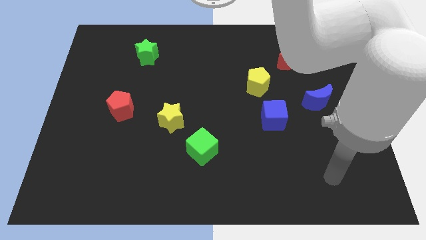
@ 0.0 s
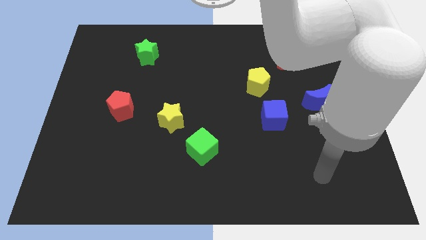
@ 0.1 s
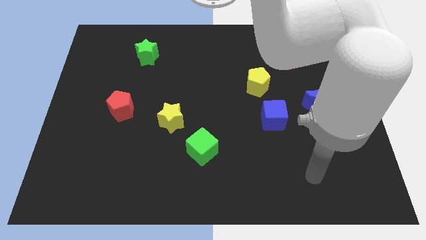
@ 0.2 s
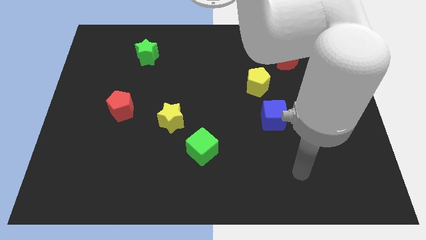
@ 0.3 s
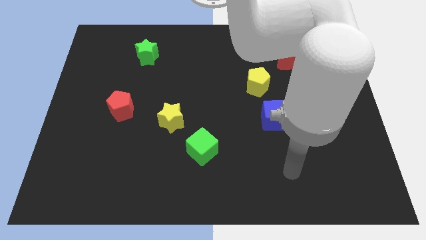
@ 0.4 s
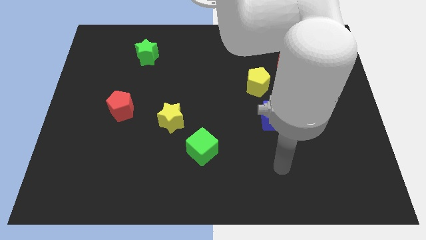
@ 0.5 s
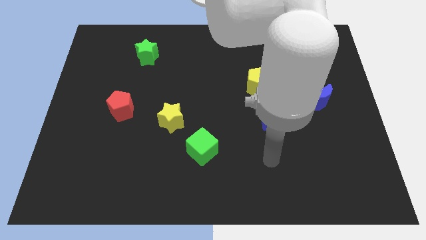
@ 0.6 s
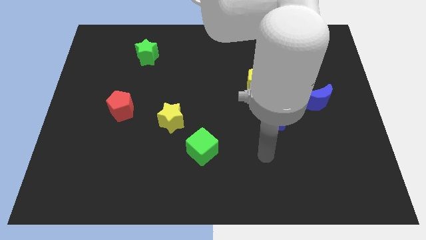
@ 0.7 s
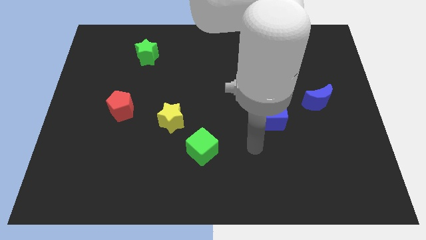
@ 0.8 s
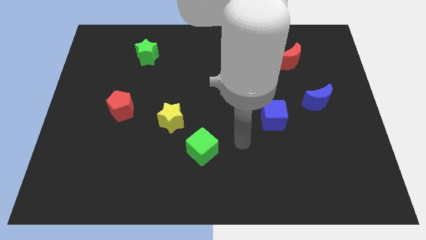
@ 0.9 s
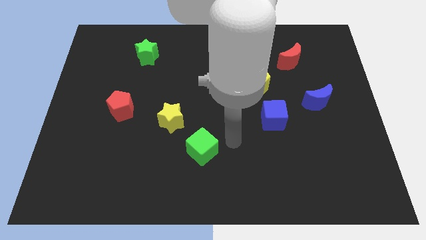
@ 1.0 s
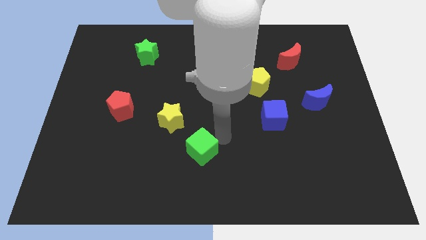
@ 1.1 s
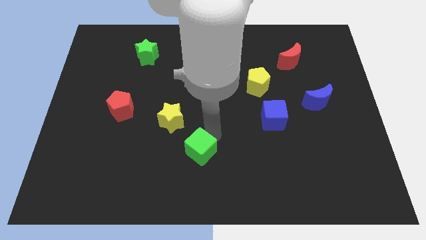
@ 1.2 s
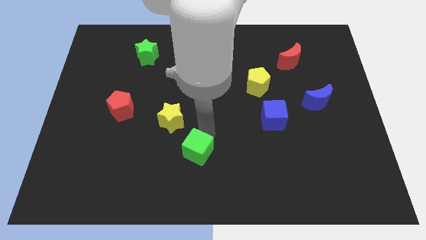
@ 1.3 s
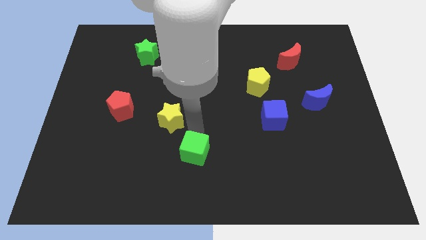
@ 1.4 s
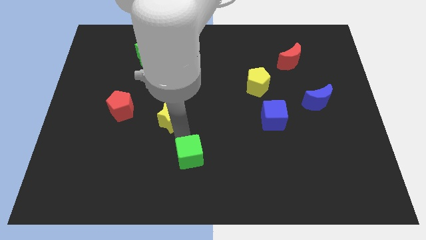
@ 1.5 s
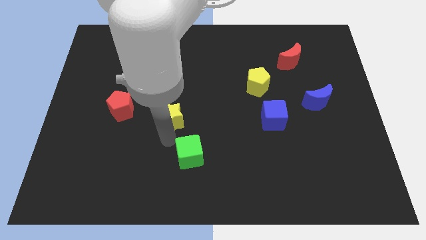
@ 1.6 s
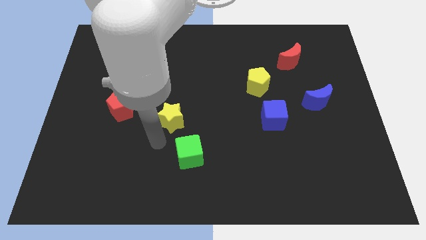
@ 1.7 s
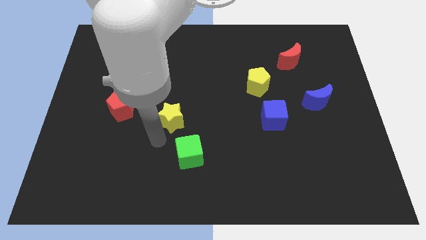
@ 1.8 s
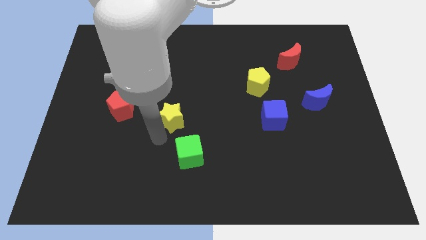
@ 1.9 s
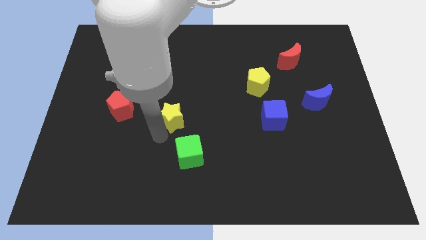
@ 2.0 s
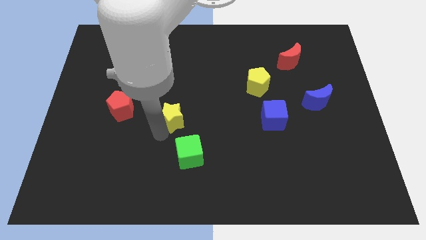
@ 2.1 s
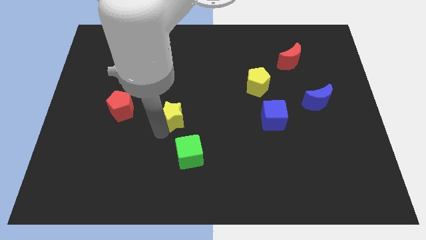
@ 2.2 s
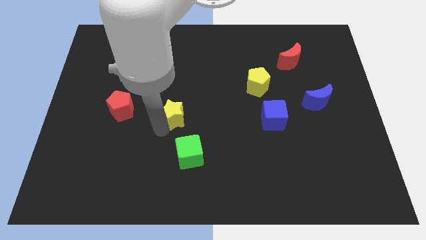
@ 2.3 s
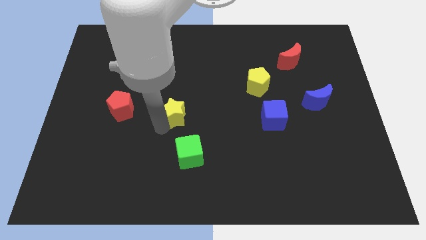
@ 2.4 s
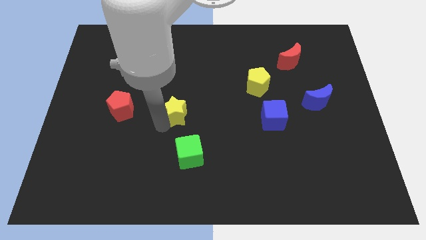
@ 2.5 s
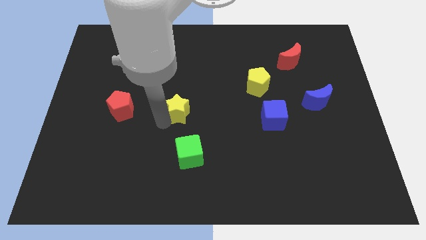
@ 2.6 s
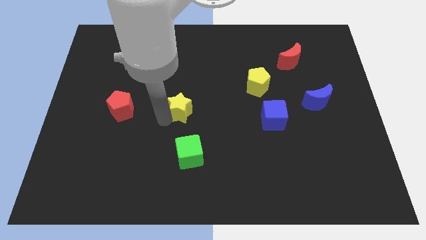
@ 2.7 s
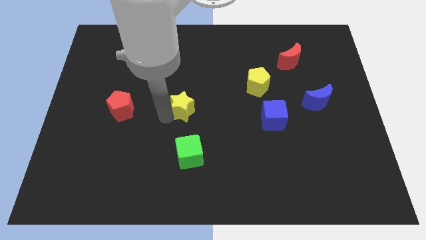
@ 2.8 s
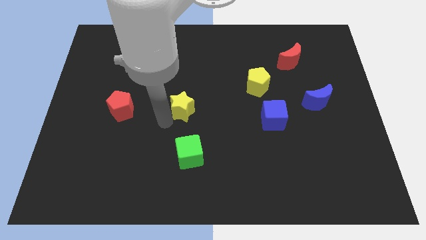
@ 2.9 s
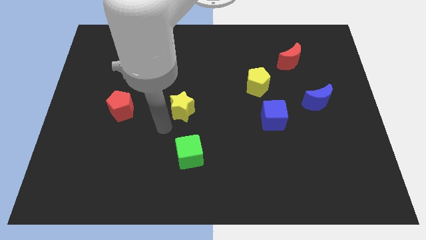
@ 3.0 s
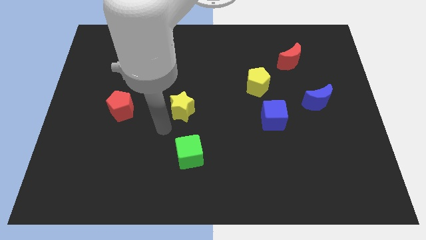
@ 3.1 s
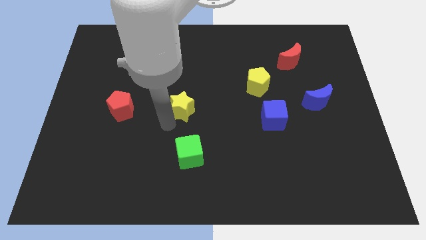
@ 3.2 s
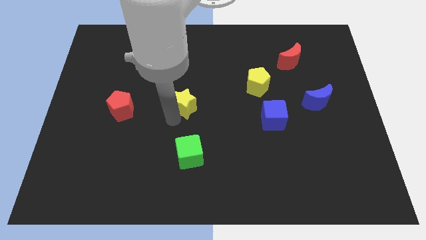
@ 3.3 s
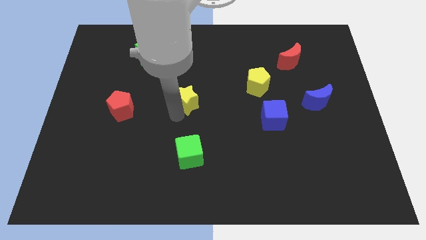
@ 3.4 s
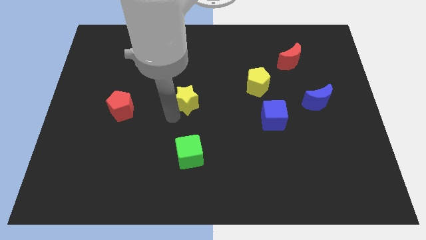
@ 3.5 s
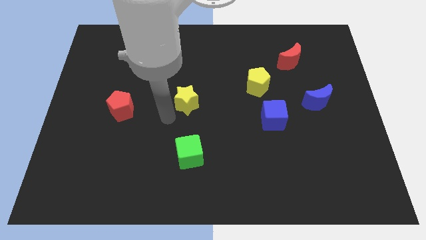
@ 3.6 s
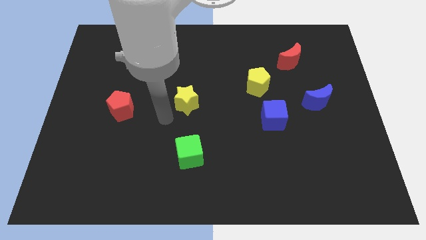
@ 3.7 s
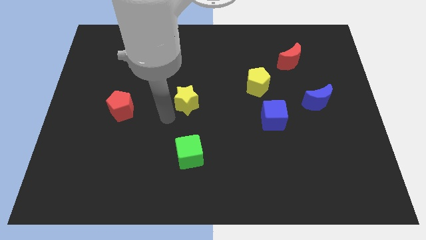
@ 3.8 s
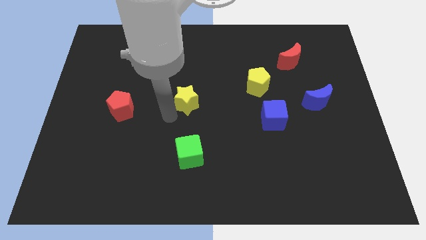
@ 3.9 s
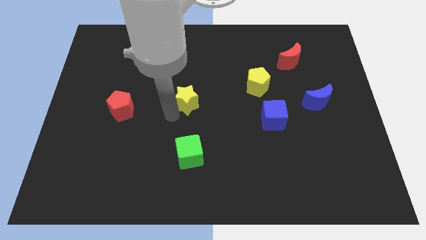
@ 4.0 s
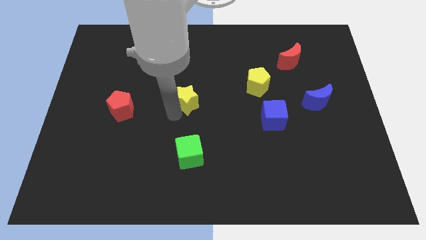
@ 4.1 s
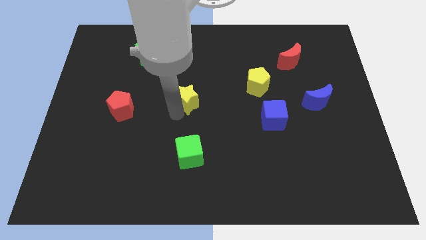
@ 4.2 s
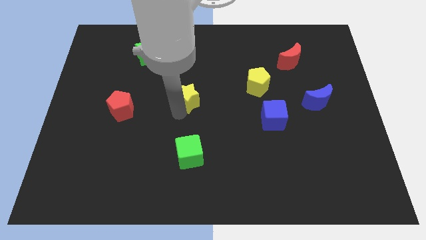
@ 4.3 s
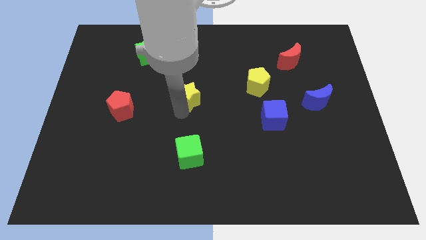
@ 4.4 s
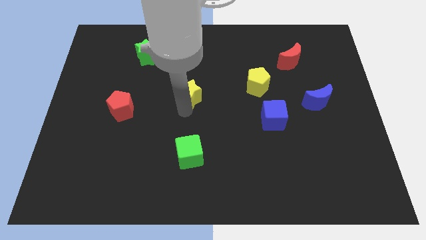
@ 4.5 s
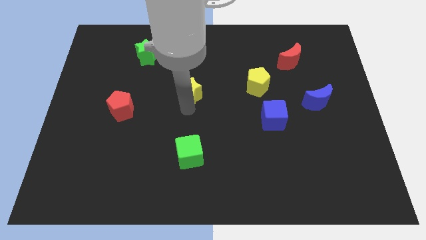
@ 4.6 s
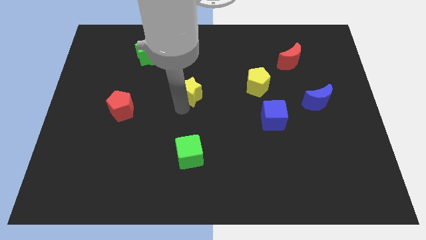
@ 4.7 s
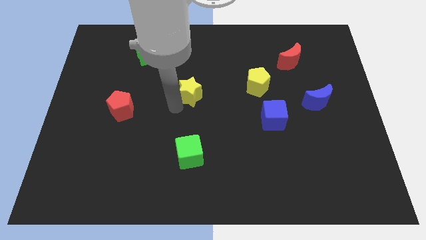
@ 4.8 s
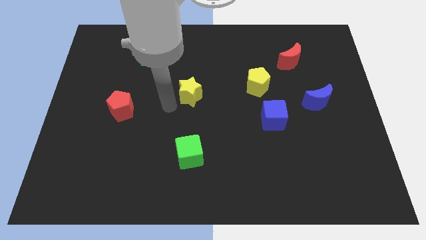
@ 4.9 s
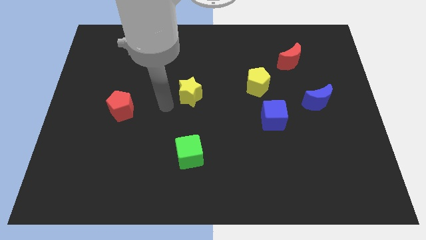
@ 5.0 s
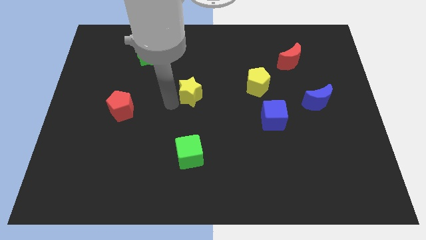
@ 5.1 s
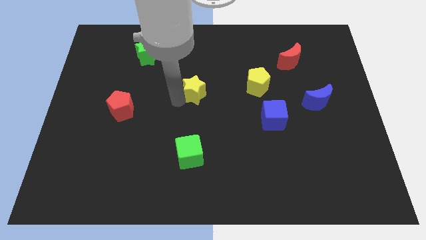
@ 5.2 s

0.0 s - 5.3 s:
slide the yellow star to the left of the yellow pentagon

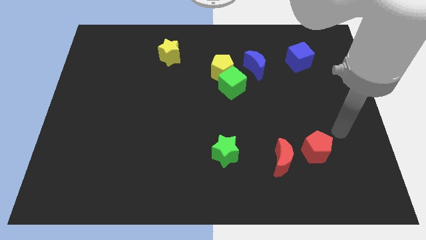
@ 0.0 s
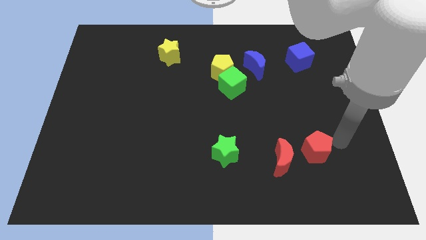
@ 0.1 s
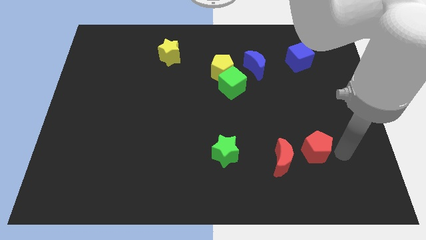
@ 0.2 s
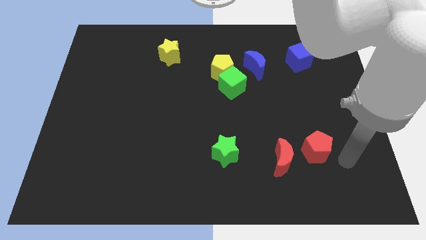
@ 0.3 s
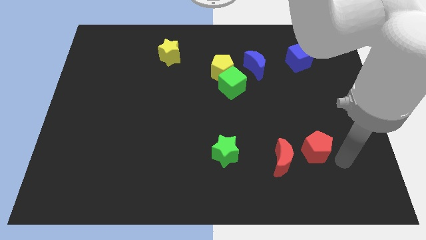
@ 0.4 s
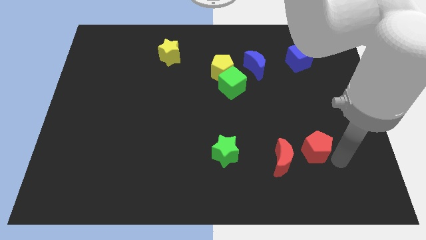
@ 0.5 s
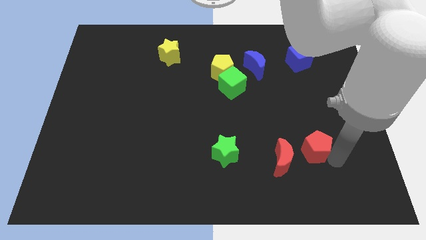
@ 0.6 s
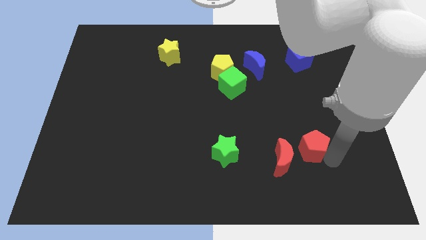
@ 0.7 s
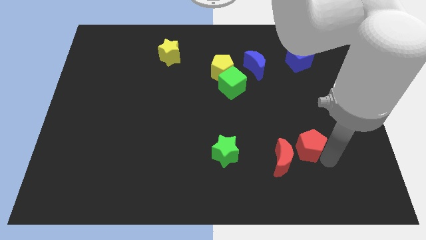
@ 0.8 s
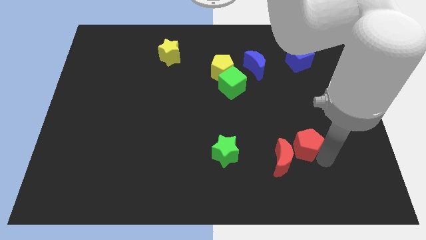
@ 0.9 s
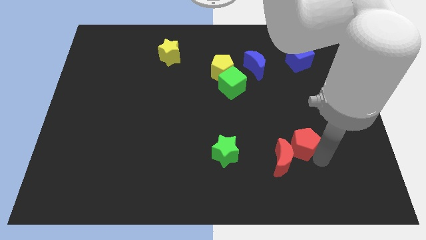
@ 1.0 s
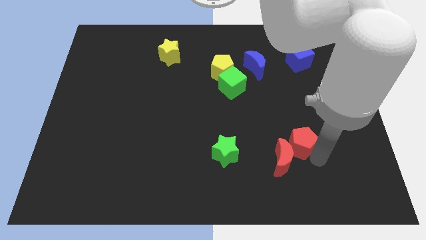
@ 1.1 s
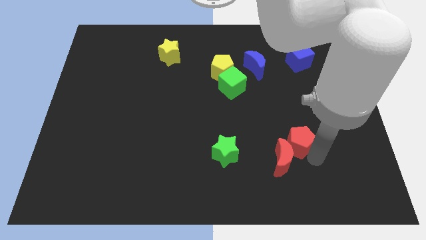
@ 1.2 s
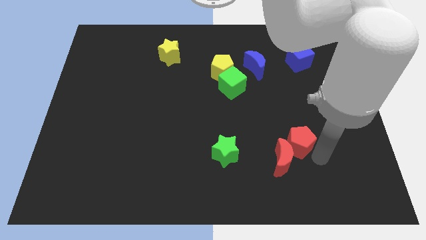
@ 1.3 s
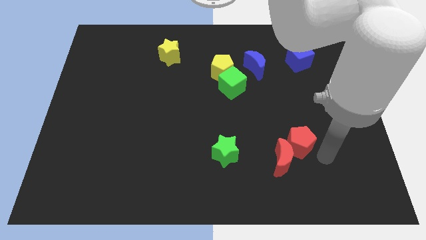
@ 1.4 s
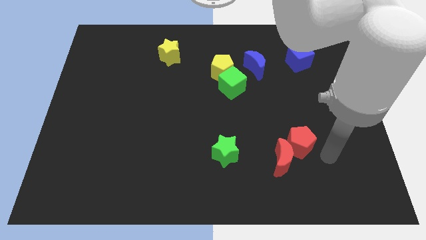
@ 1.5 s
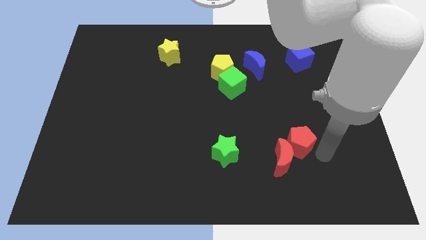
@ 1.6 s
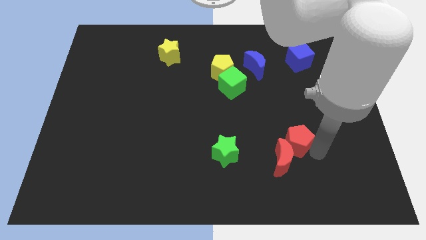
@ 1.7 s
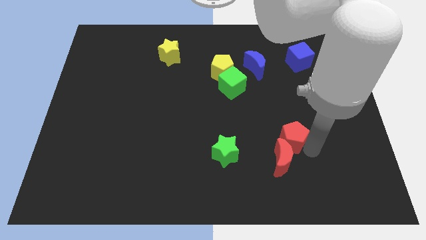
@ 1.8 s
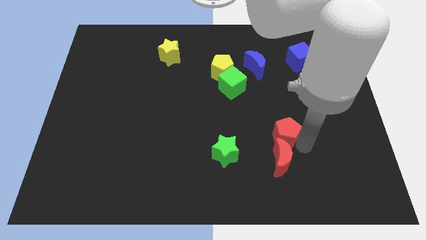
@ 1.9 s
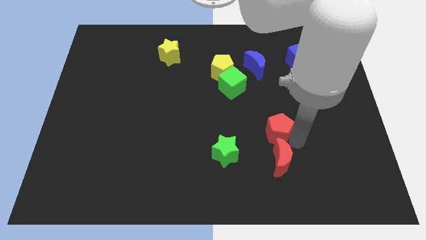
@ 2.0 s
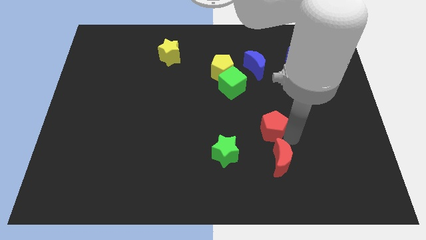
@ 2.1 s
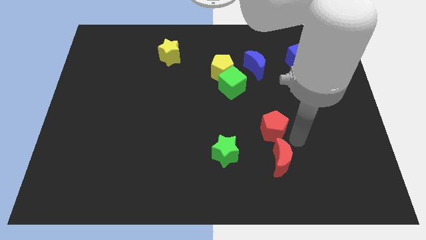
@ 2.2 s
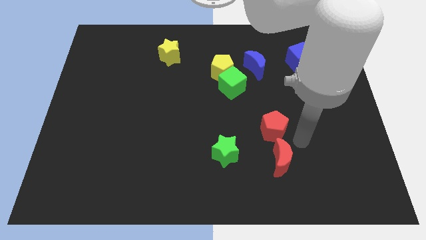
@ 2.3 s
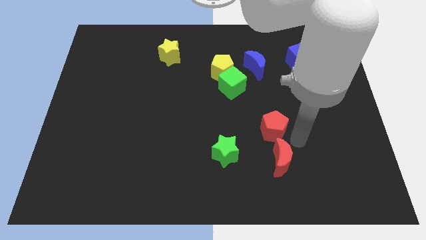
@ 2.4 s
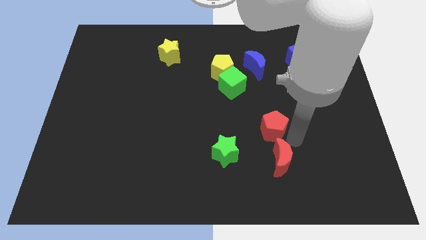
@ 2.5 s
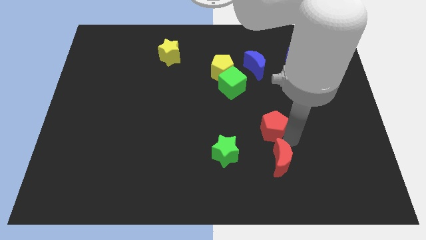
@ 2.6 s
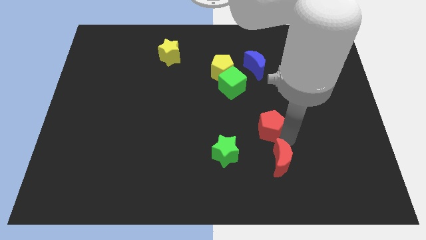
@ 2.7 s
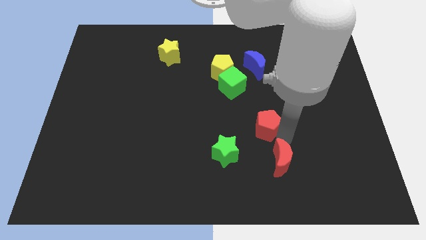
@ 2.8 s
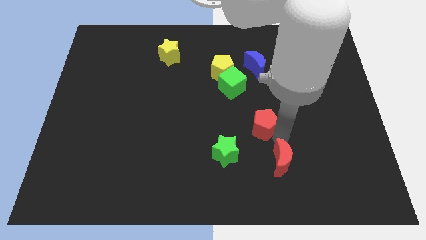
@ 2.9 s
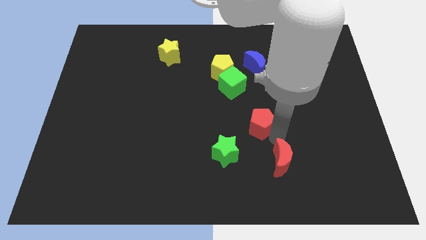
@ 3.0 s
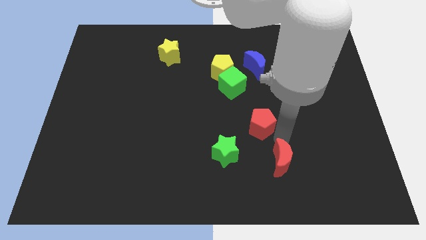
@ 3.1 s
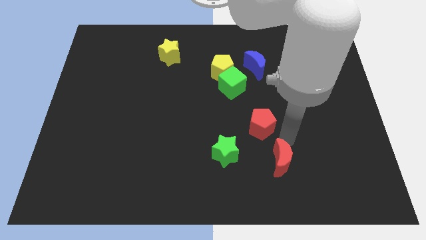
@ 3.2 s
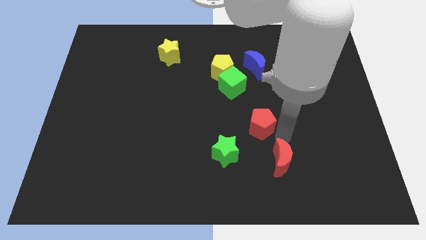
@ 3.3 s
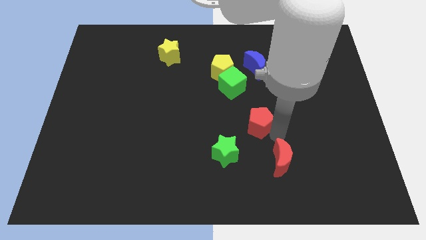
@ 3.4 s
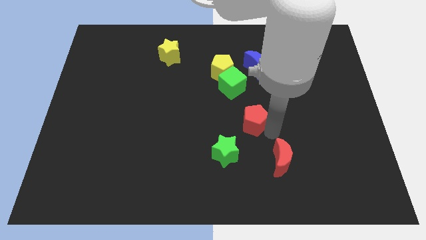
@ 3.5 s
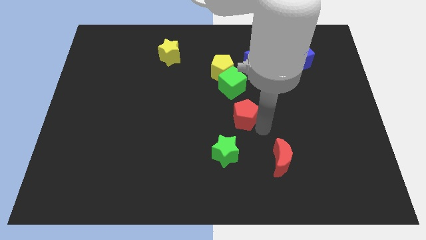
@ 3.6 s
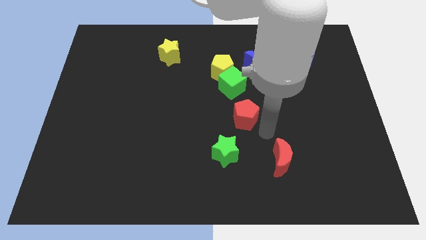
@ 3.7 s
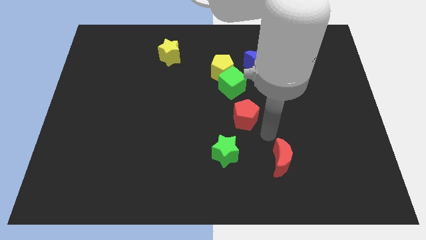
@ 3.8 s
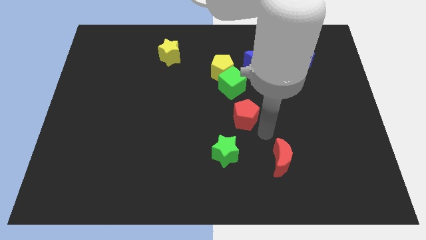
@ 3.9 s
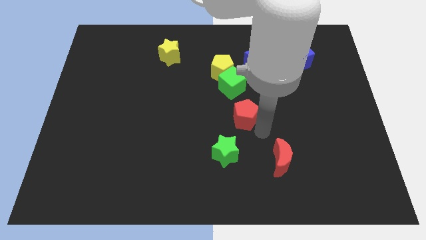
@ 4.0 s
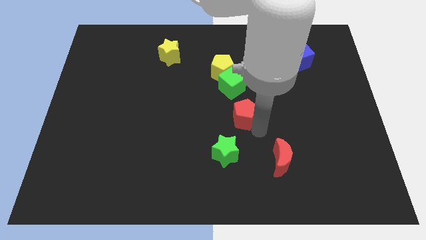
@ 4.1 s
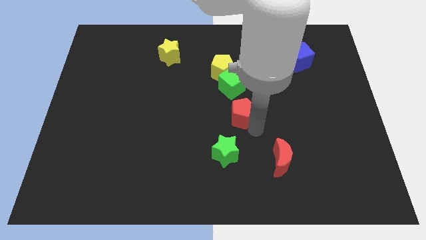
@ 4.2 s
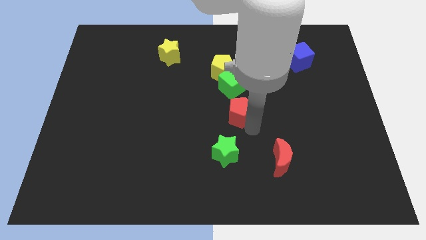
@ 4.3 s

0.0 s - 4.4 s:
slide the red pentagon to the bottom side of the yellow pentagon
